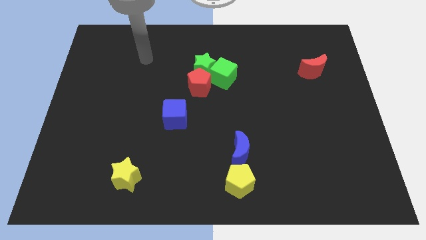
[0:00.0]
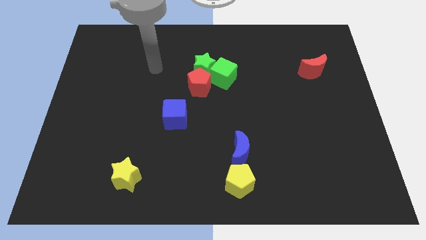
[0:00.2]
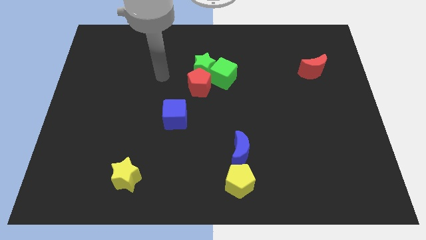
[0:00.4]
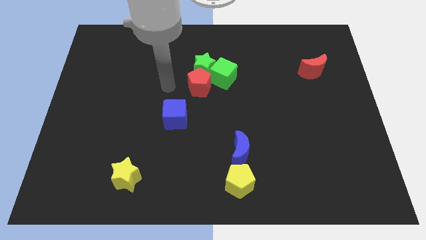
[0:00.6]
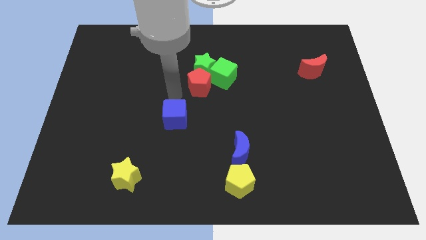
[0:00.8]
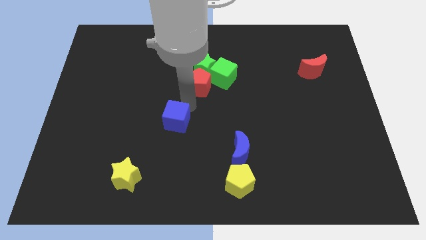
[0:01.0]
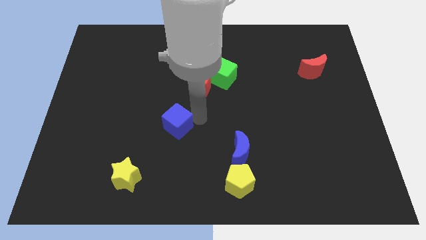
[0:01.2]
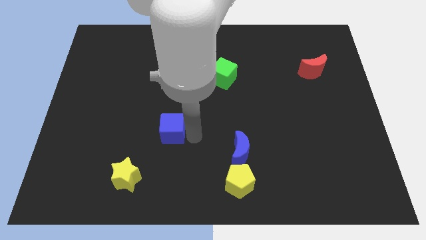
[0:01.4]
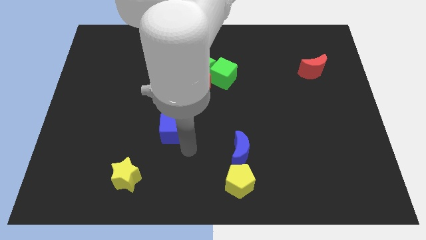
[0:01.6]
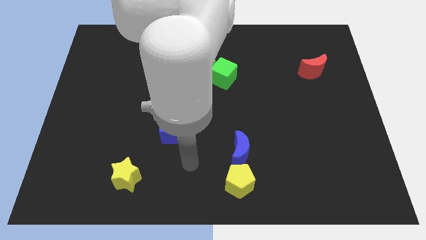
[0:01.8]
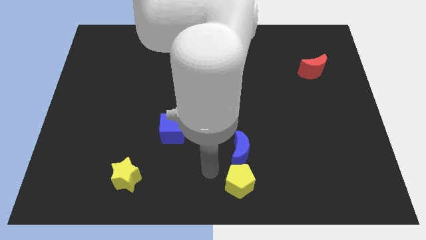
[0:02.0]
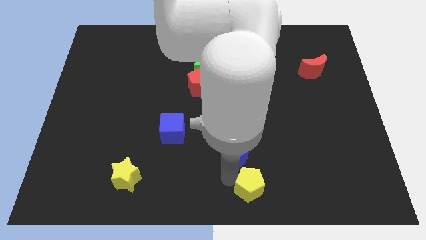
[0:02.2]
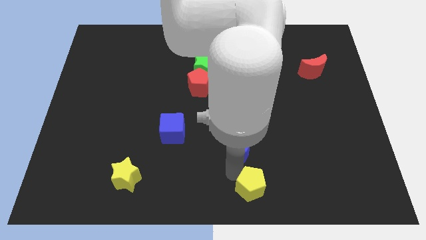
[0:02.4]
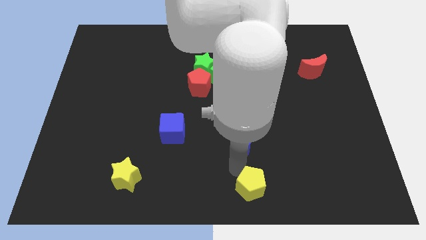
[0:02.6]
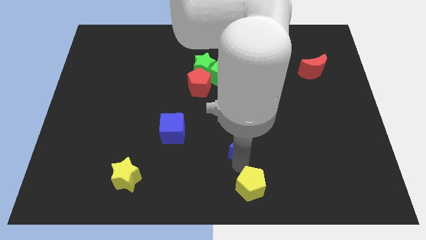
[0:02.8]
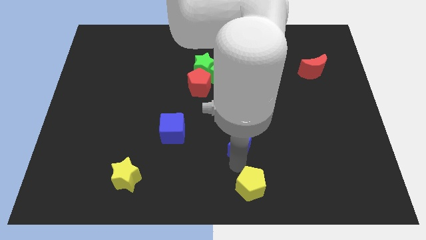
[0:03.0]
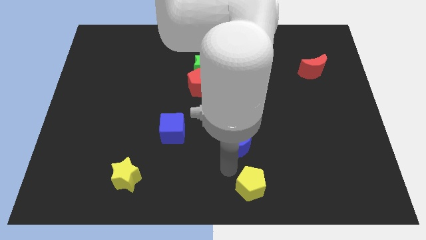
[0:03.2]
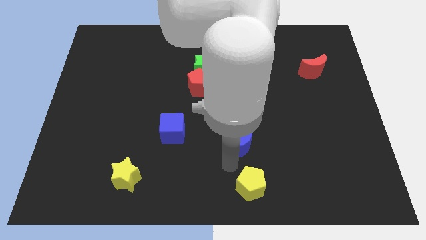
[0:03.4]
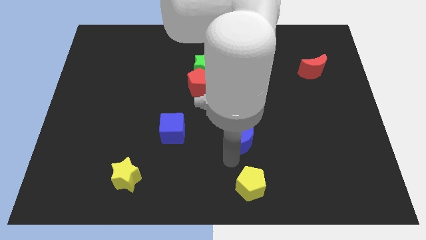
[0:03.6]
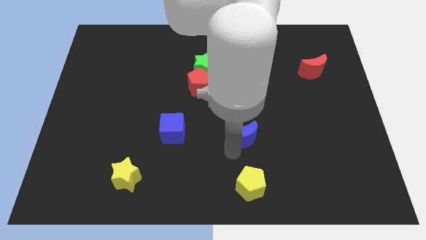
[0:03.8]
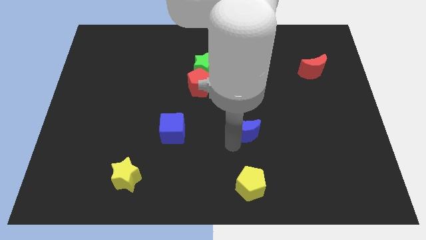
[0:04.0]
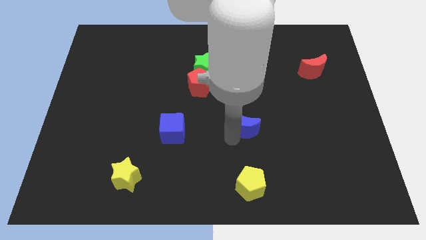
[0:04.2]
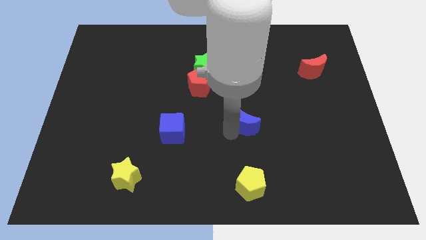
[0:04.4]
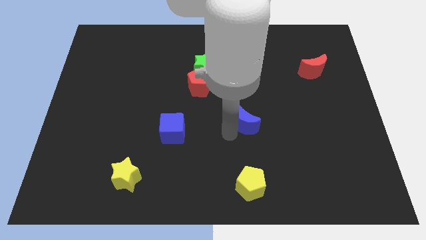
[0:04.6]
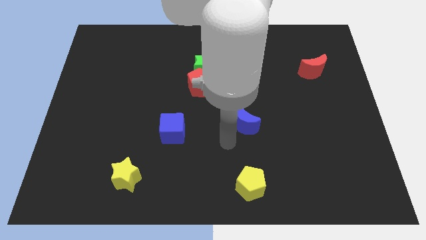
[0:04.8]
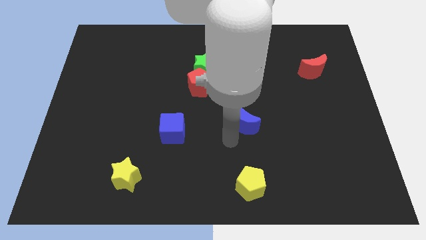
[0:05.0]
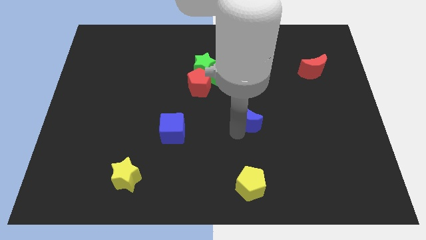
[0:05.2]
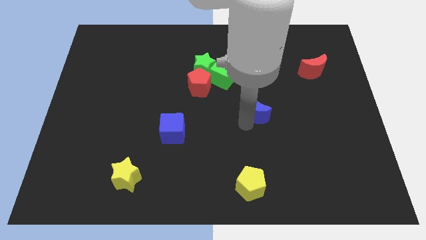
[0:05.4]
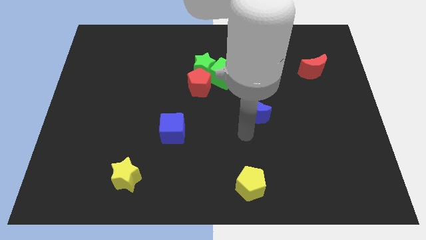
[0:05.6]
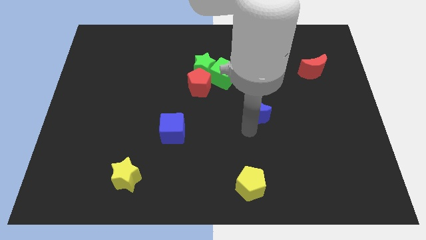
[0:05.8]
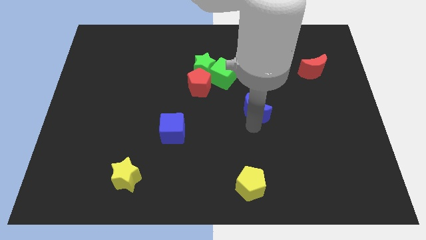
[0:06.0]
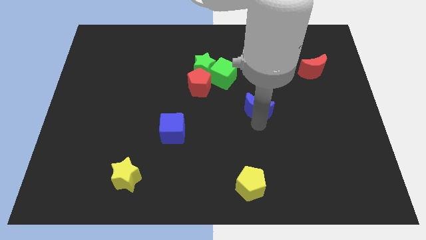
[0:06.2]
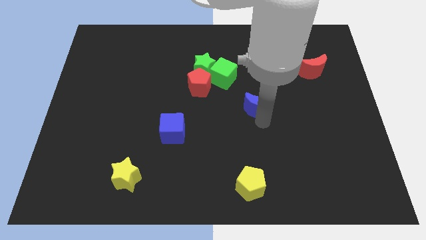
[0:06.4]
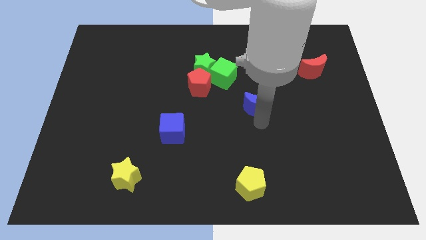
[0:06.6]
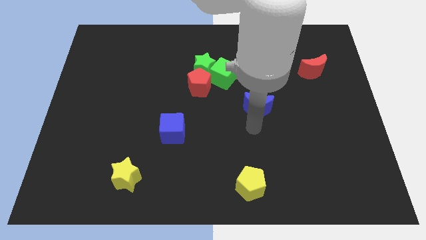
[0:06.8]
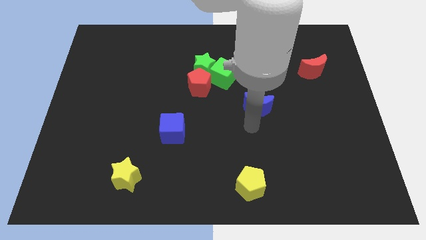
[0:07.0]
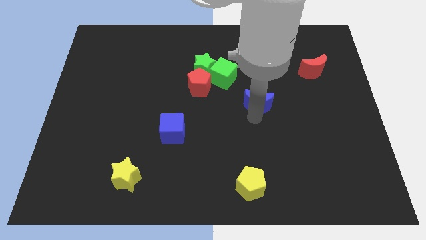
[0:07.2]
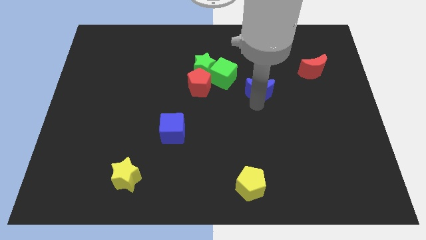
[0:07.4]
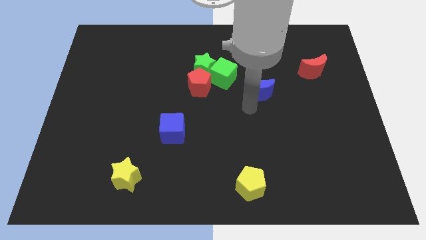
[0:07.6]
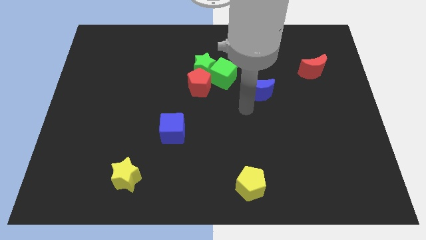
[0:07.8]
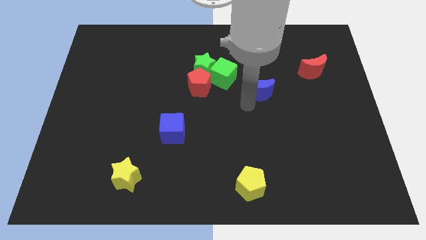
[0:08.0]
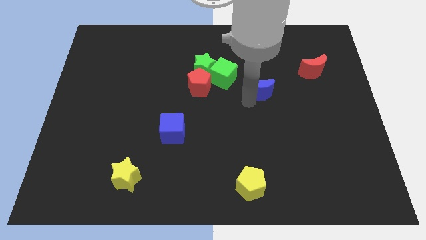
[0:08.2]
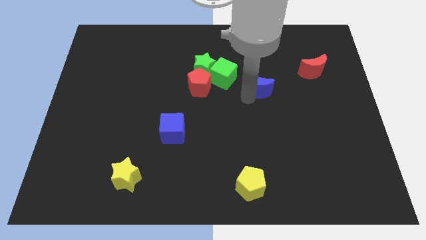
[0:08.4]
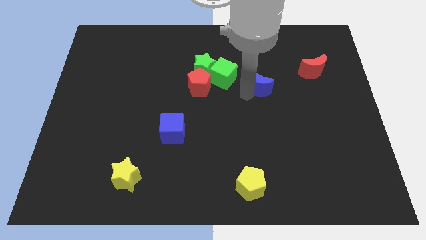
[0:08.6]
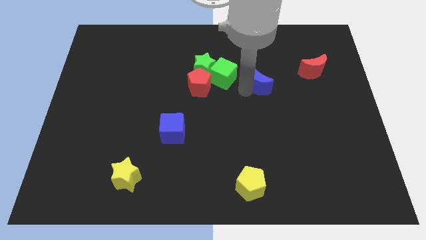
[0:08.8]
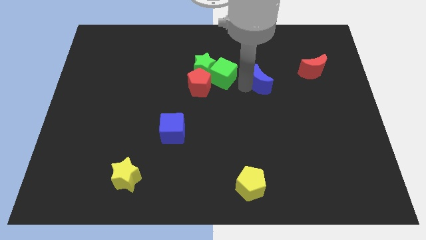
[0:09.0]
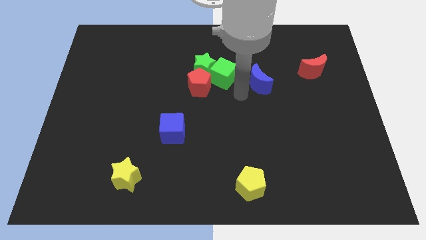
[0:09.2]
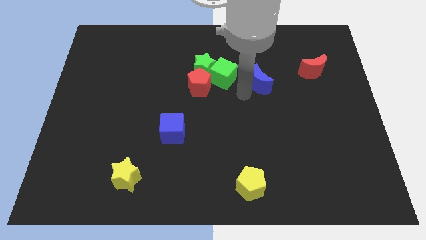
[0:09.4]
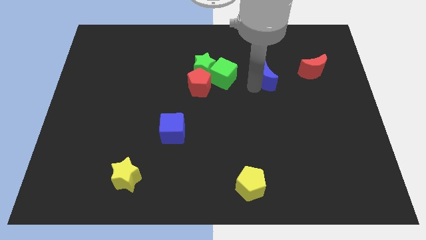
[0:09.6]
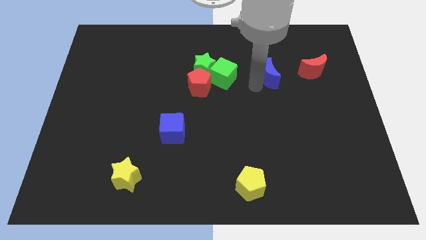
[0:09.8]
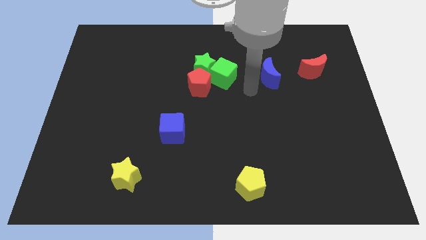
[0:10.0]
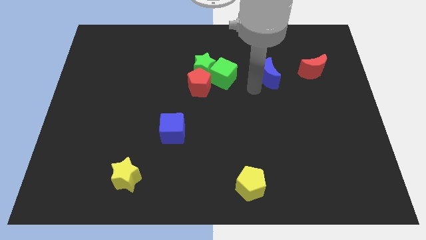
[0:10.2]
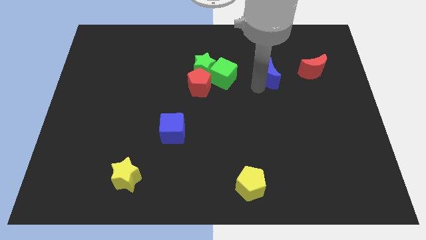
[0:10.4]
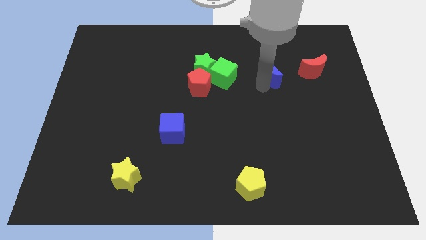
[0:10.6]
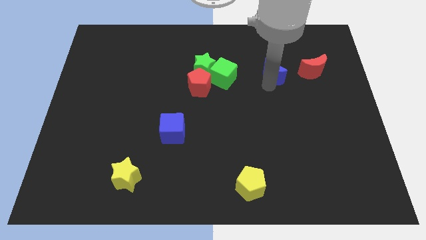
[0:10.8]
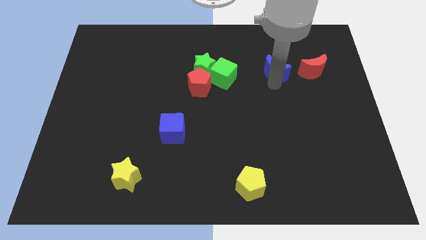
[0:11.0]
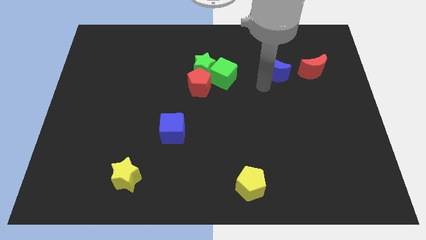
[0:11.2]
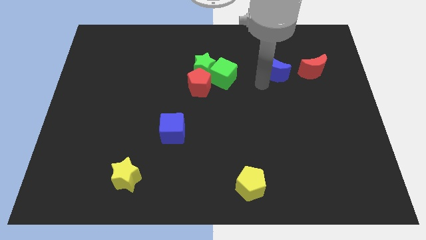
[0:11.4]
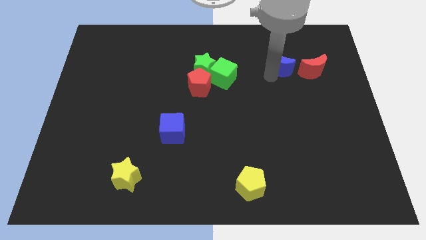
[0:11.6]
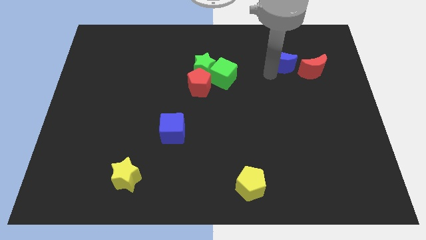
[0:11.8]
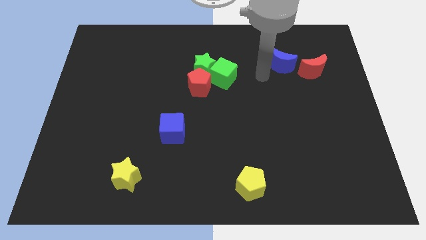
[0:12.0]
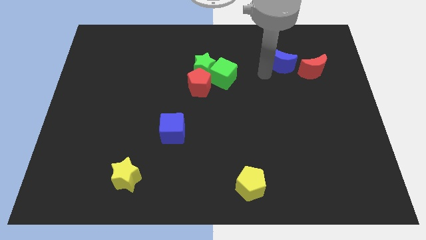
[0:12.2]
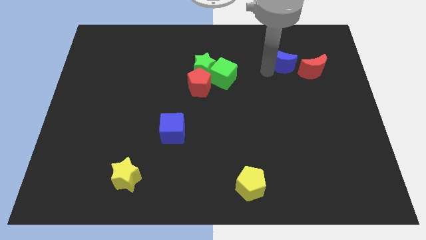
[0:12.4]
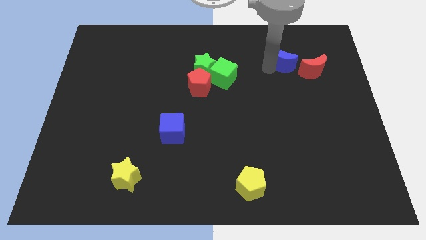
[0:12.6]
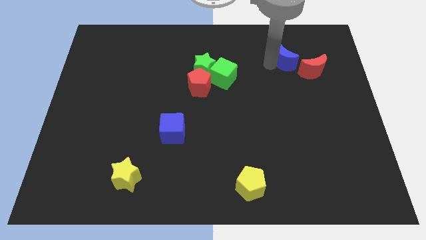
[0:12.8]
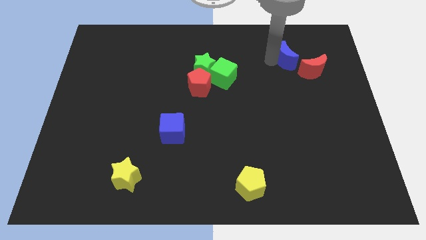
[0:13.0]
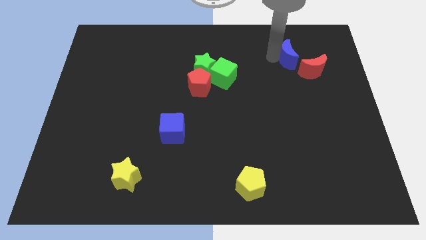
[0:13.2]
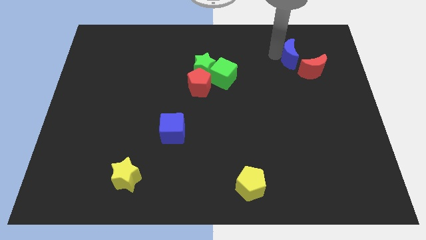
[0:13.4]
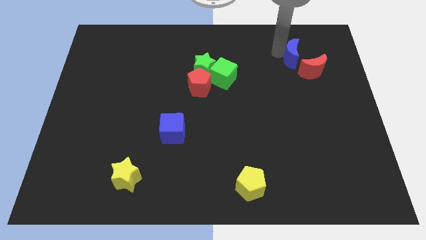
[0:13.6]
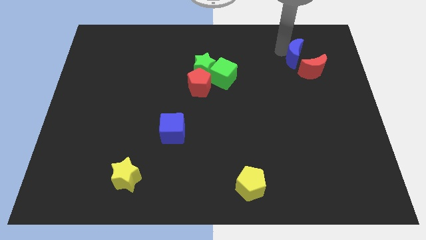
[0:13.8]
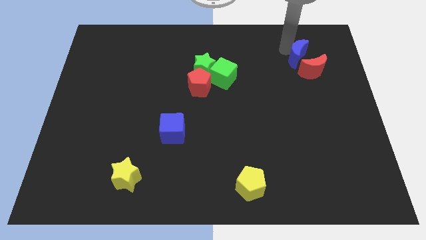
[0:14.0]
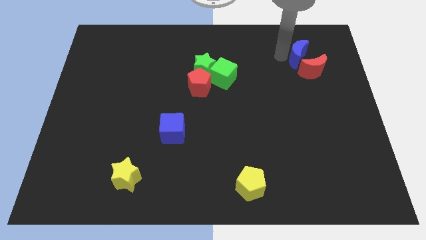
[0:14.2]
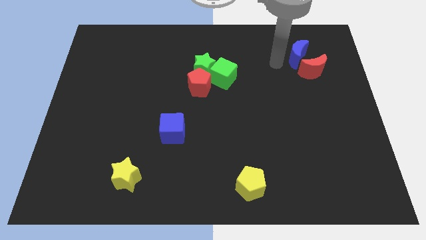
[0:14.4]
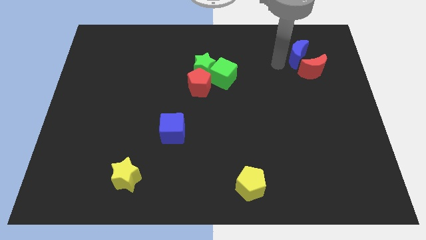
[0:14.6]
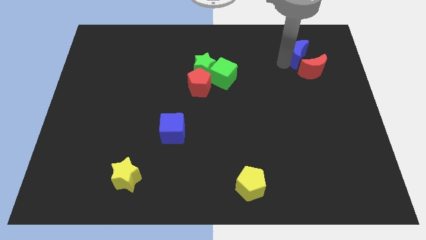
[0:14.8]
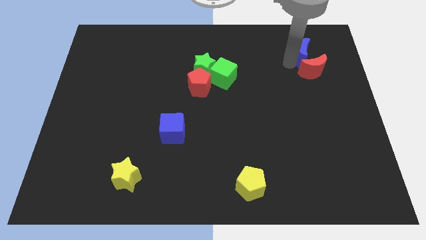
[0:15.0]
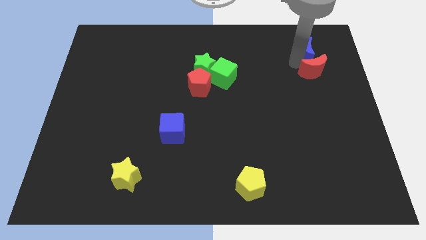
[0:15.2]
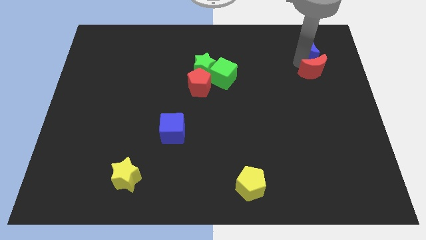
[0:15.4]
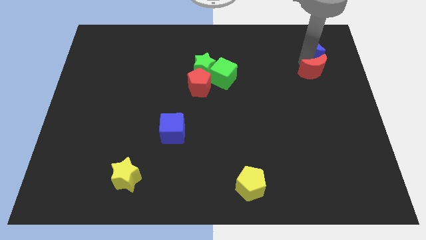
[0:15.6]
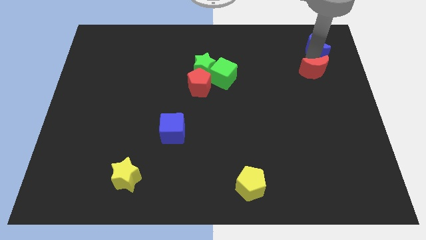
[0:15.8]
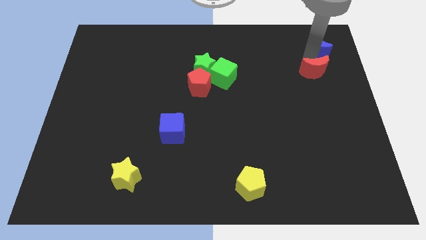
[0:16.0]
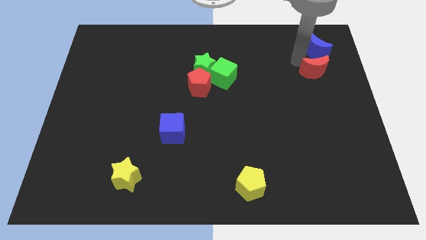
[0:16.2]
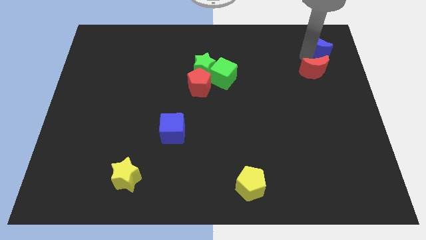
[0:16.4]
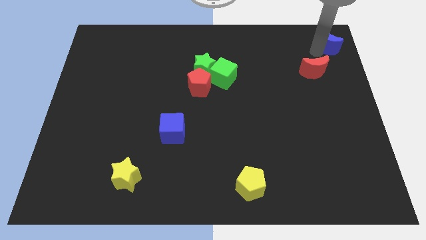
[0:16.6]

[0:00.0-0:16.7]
put the blue moon to the top right corner
